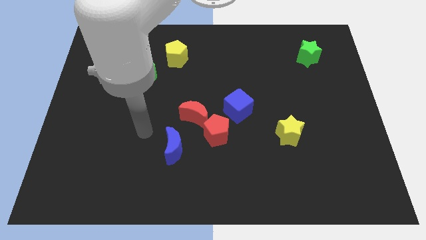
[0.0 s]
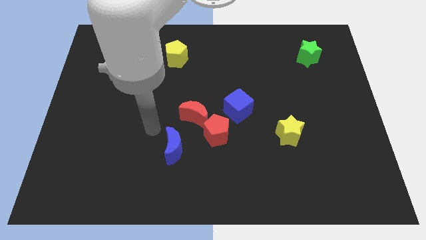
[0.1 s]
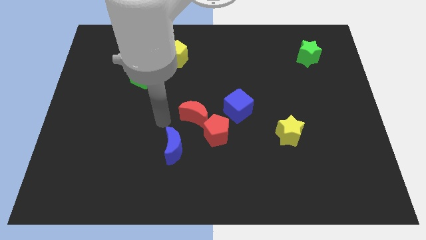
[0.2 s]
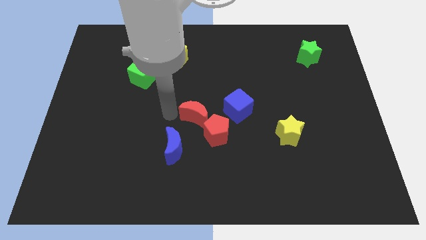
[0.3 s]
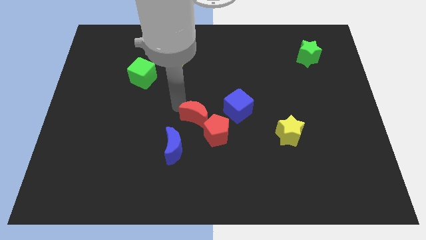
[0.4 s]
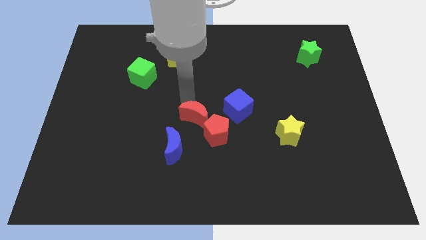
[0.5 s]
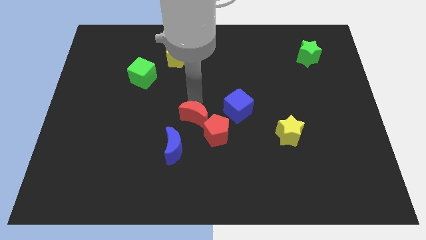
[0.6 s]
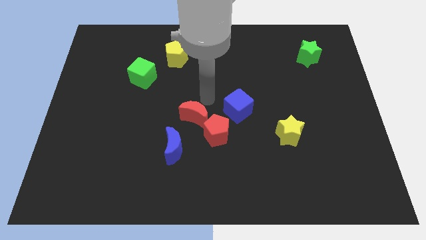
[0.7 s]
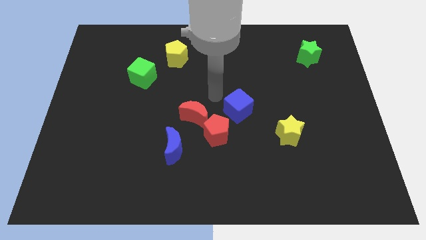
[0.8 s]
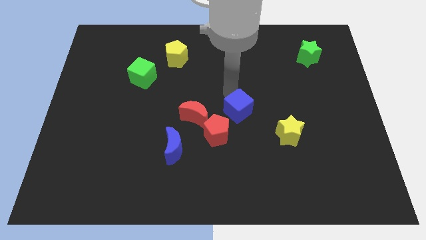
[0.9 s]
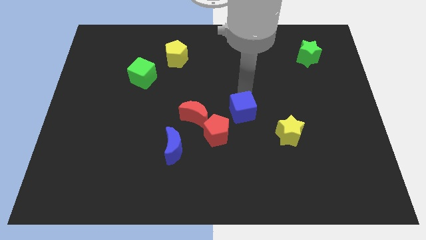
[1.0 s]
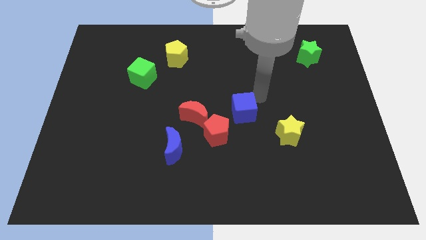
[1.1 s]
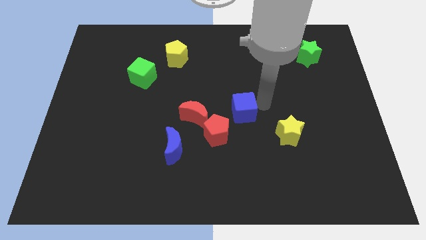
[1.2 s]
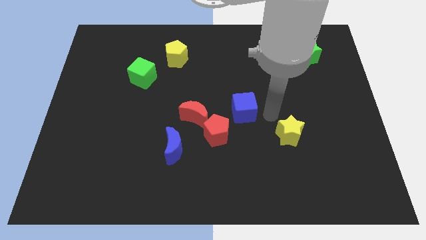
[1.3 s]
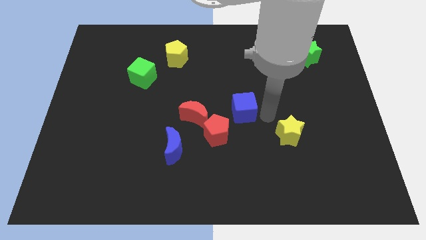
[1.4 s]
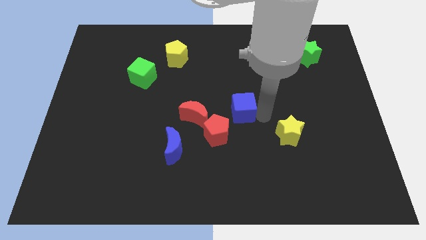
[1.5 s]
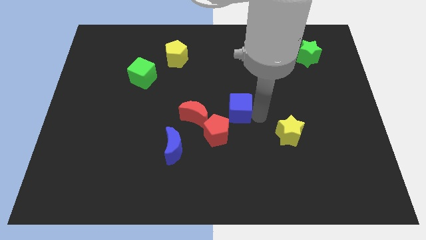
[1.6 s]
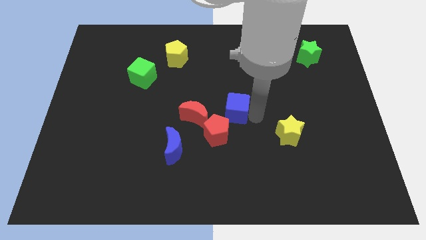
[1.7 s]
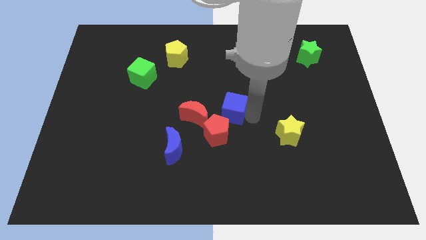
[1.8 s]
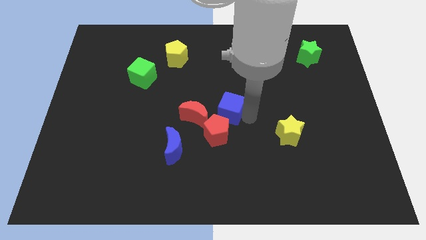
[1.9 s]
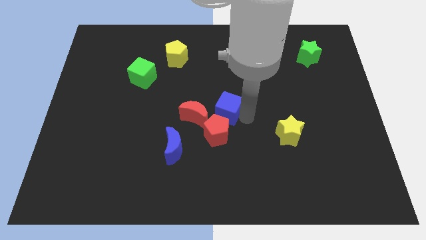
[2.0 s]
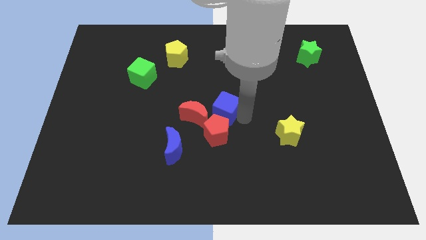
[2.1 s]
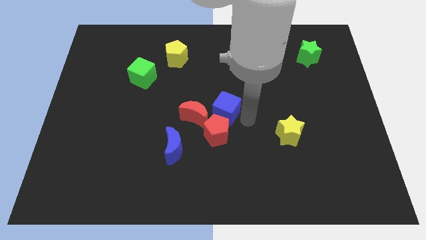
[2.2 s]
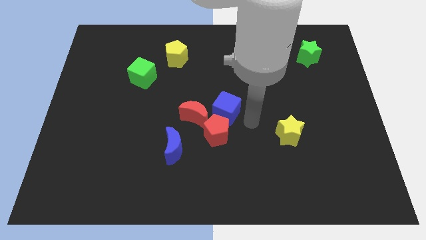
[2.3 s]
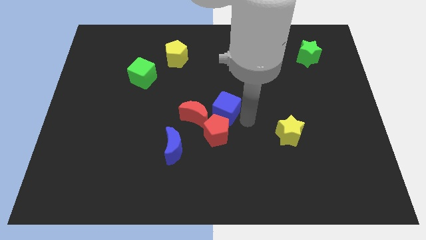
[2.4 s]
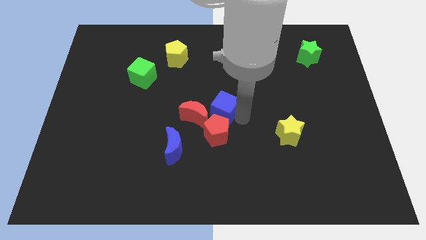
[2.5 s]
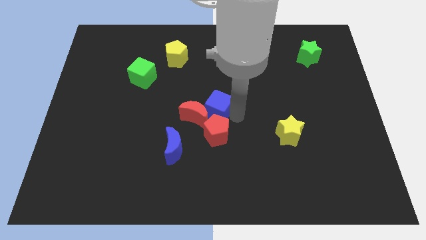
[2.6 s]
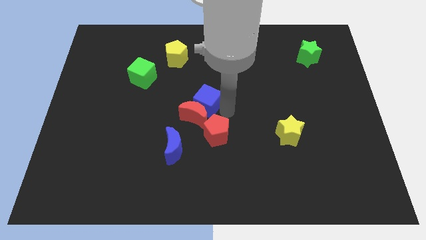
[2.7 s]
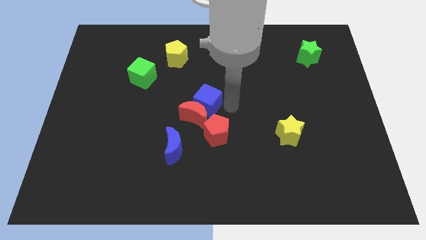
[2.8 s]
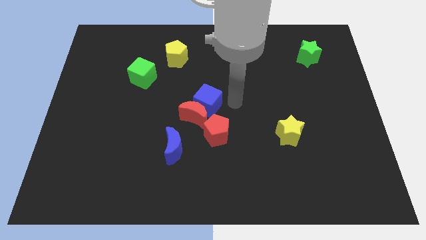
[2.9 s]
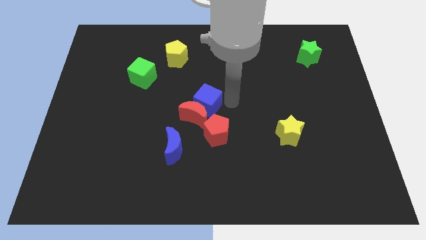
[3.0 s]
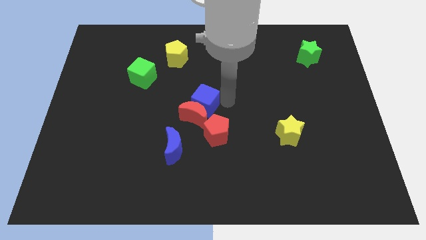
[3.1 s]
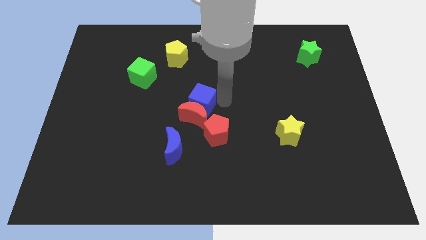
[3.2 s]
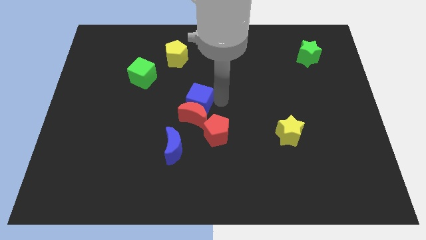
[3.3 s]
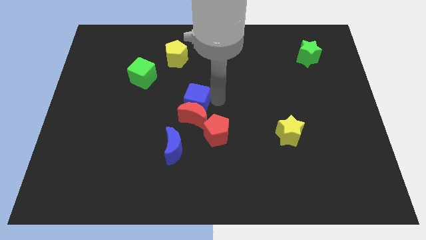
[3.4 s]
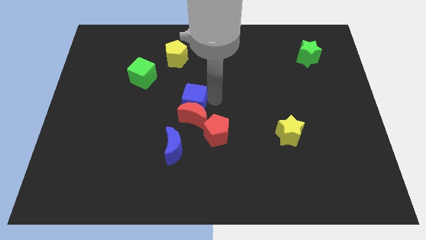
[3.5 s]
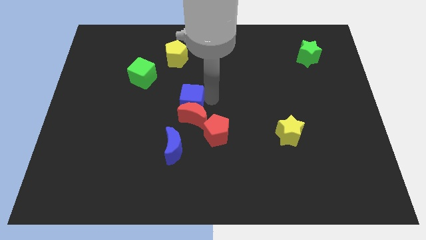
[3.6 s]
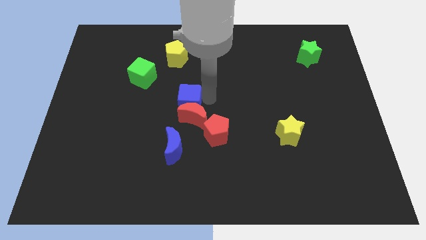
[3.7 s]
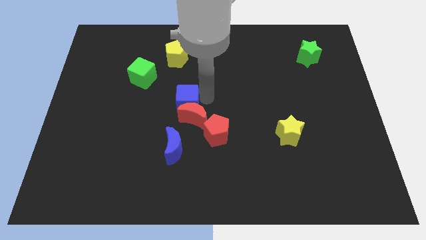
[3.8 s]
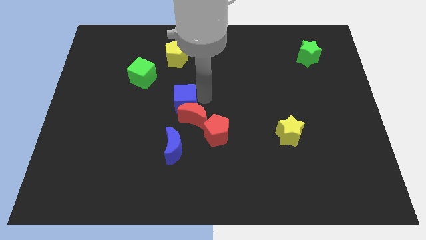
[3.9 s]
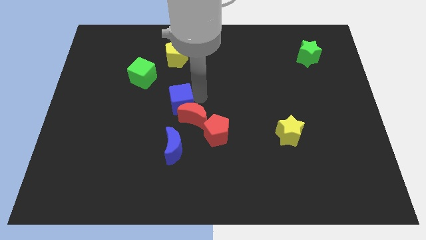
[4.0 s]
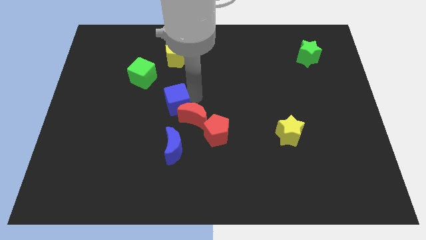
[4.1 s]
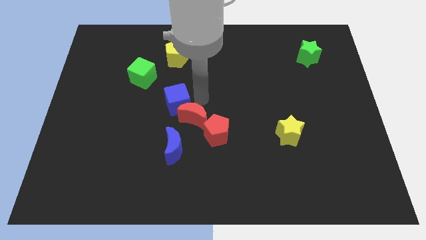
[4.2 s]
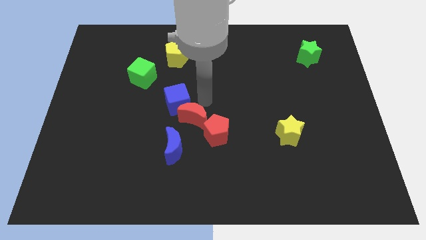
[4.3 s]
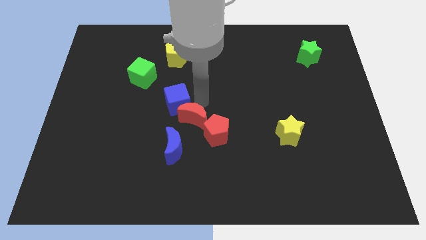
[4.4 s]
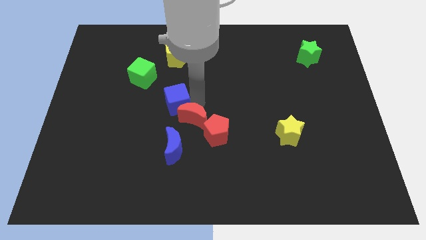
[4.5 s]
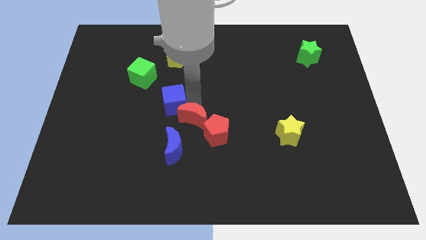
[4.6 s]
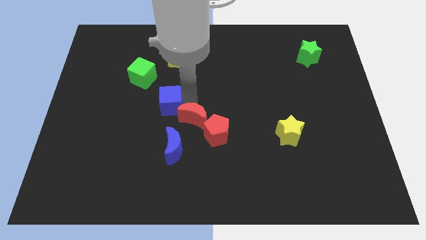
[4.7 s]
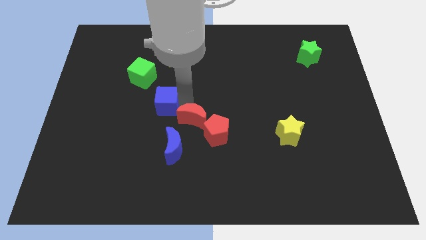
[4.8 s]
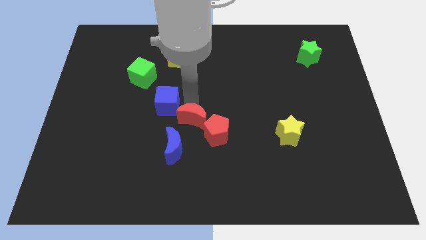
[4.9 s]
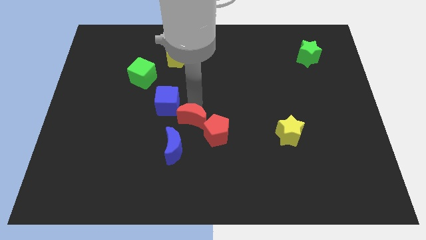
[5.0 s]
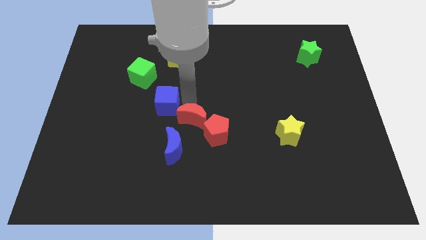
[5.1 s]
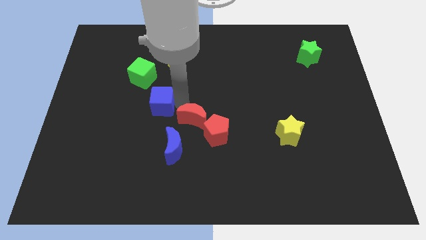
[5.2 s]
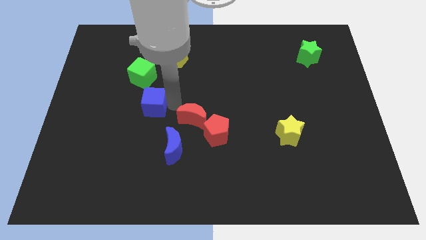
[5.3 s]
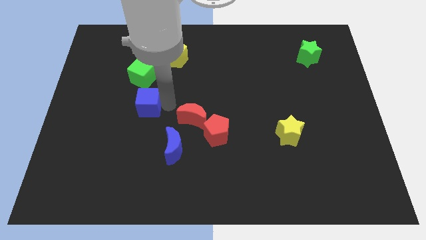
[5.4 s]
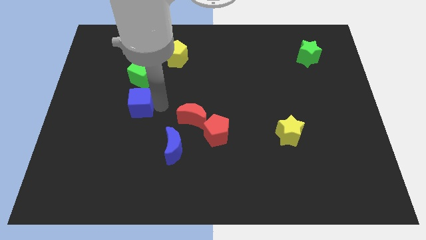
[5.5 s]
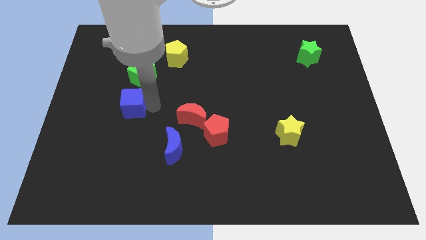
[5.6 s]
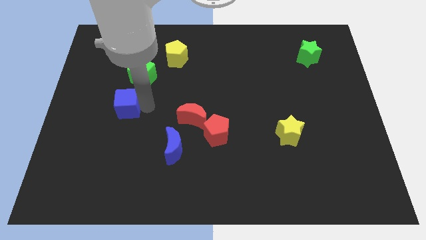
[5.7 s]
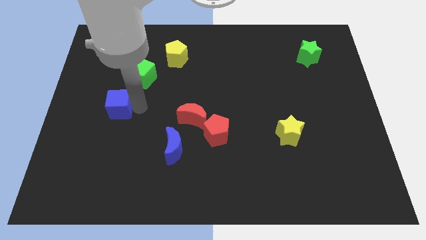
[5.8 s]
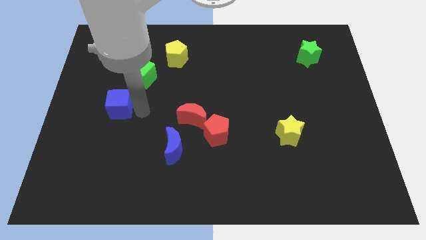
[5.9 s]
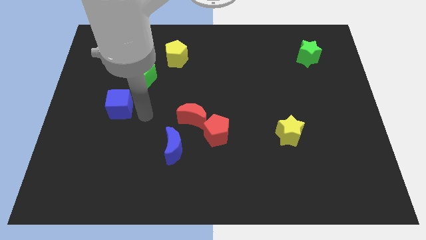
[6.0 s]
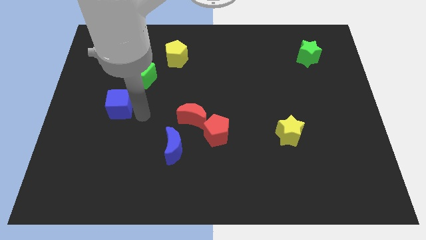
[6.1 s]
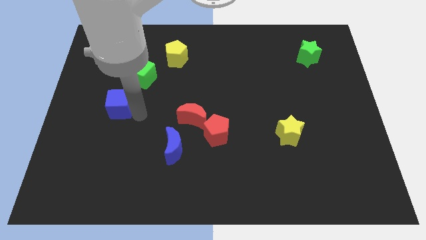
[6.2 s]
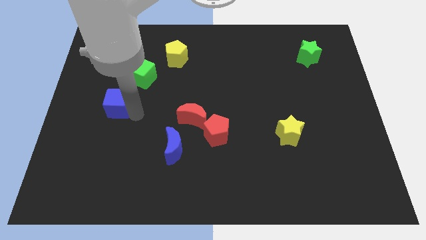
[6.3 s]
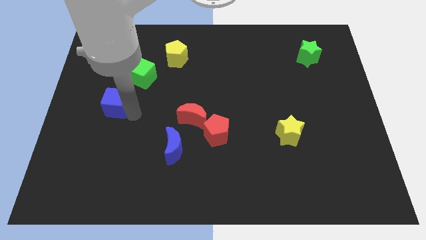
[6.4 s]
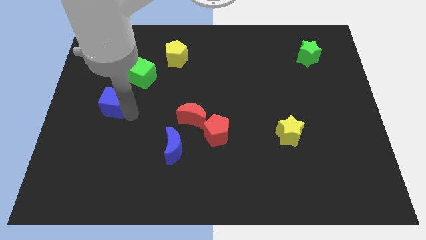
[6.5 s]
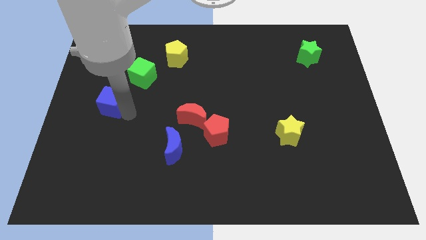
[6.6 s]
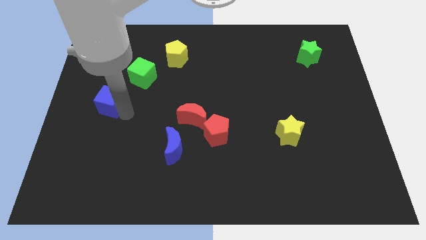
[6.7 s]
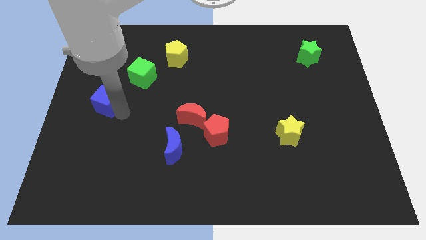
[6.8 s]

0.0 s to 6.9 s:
push the blue cube to the left side
